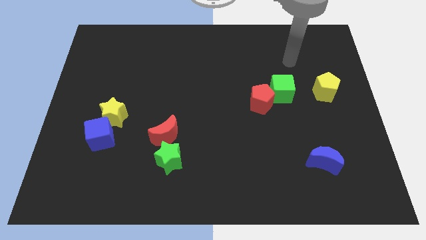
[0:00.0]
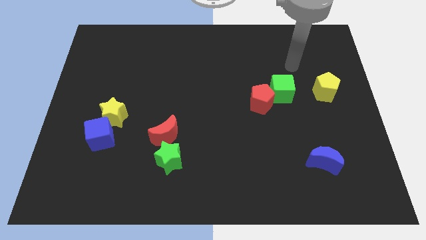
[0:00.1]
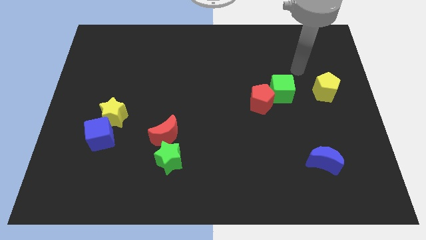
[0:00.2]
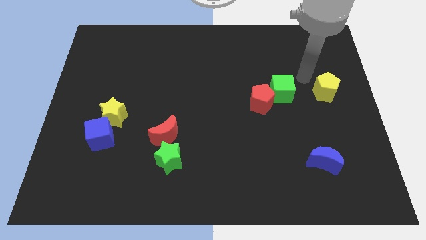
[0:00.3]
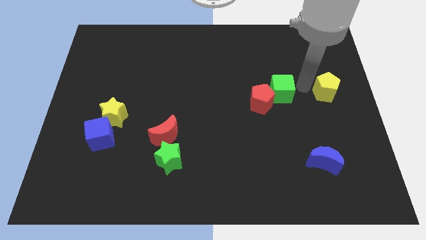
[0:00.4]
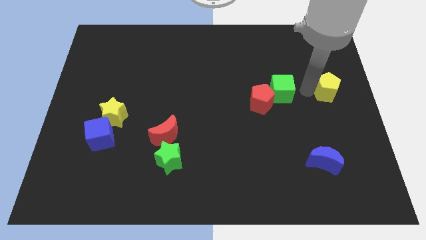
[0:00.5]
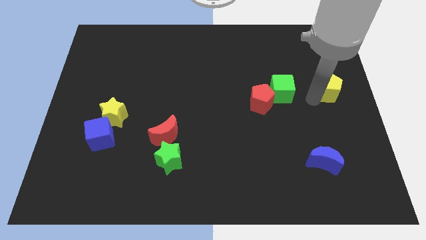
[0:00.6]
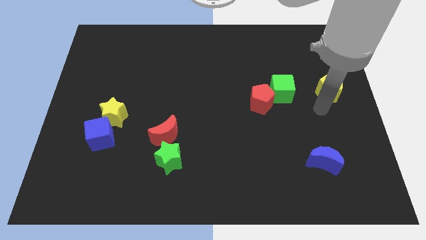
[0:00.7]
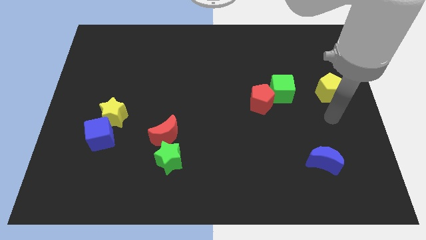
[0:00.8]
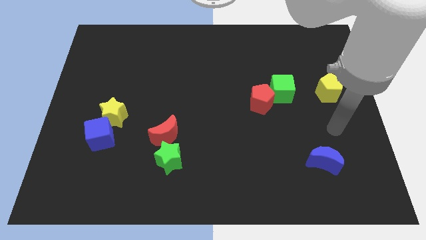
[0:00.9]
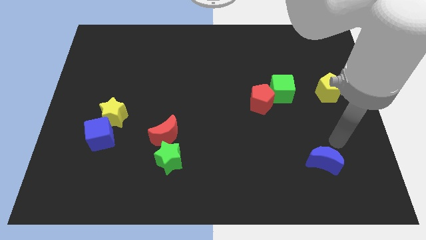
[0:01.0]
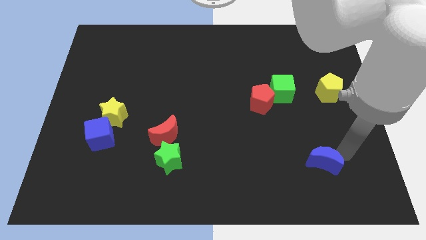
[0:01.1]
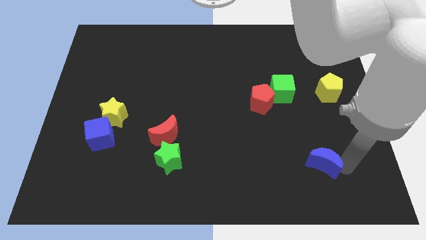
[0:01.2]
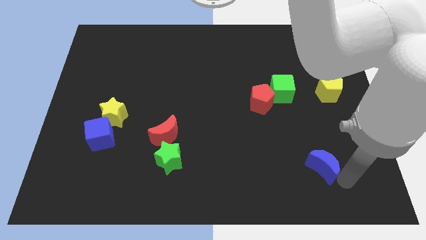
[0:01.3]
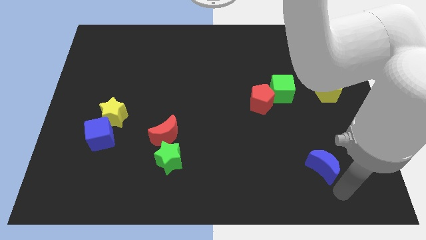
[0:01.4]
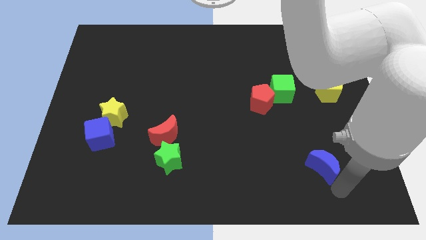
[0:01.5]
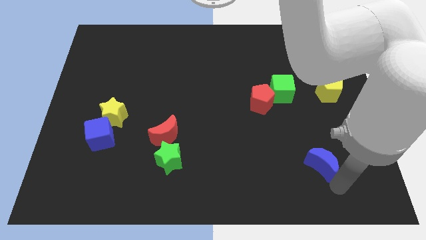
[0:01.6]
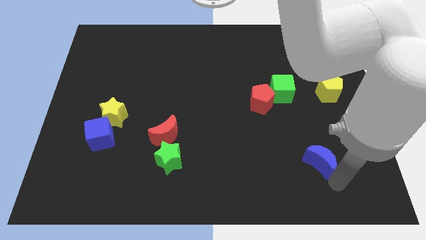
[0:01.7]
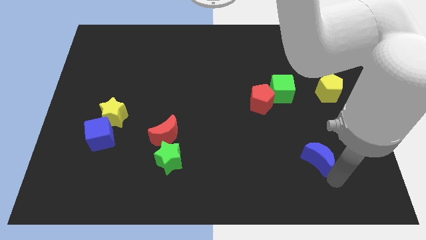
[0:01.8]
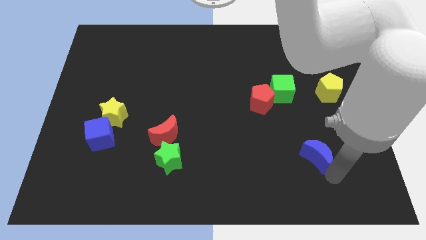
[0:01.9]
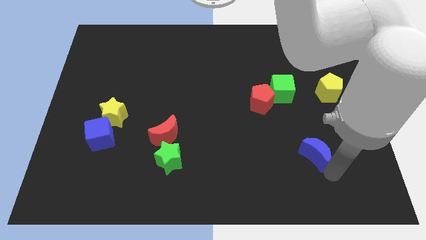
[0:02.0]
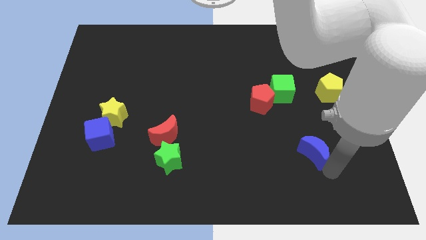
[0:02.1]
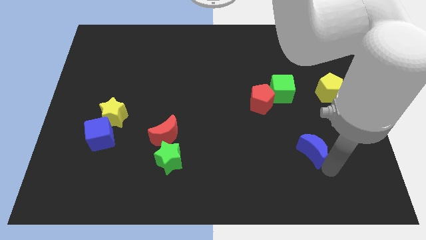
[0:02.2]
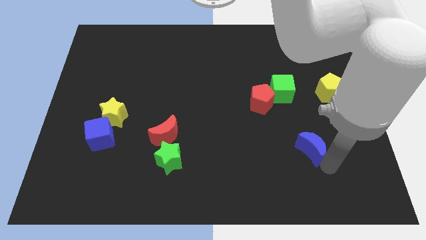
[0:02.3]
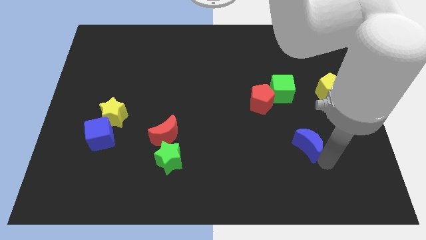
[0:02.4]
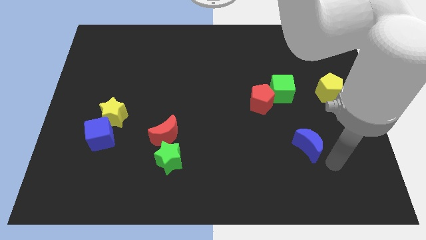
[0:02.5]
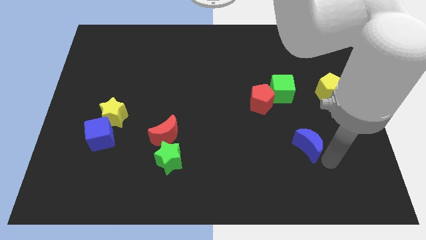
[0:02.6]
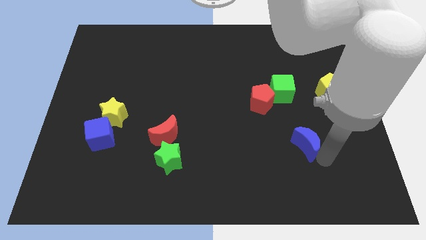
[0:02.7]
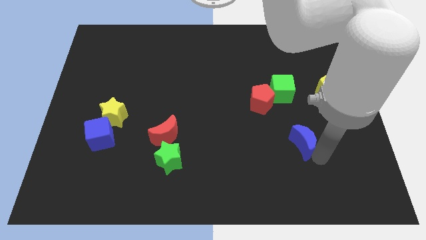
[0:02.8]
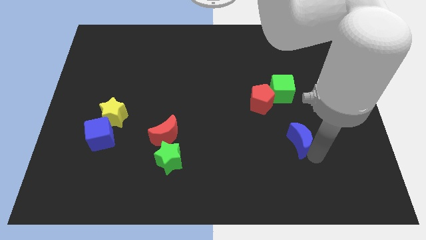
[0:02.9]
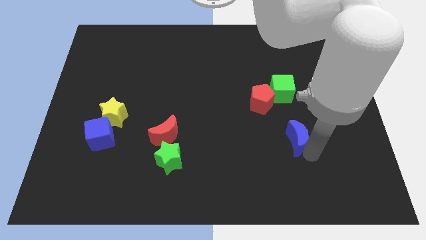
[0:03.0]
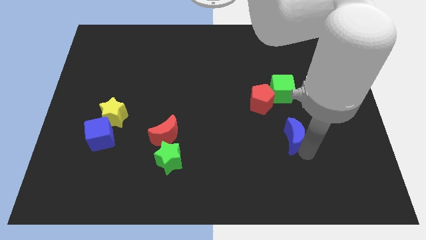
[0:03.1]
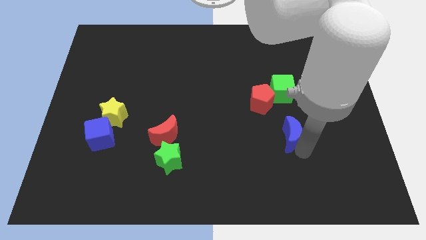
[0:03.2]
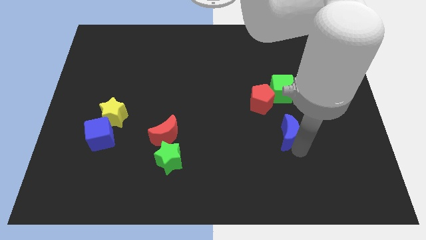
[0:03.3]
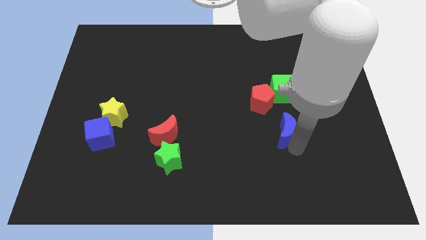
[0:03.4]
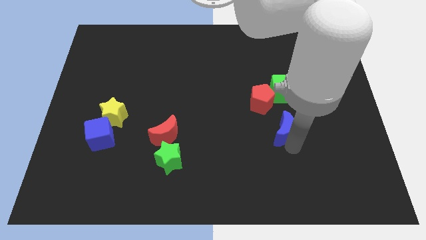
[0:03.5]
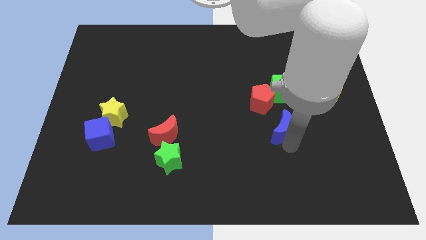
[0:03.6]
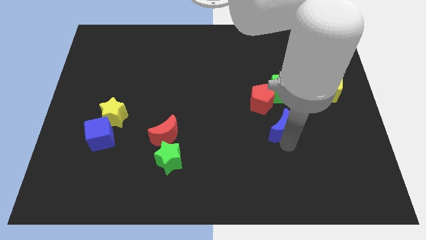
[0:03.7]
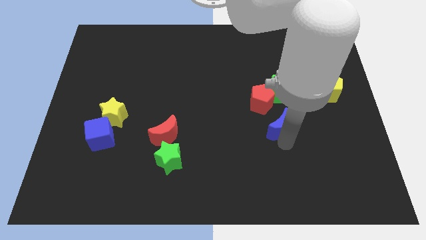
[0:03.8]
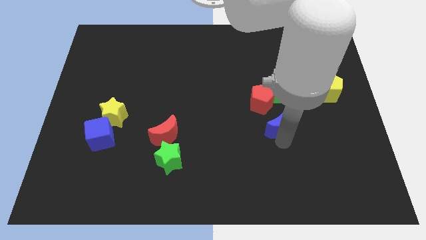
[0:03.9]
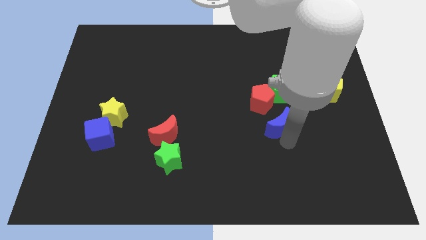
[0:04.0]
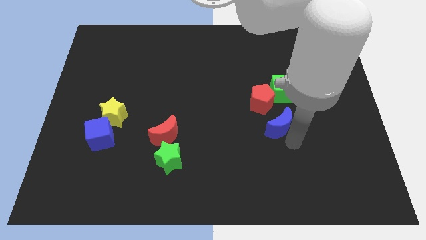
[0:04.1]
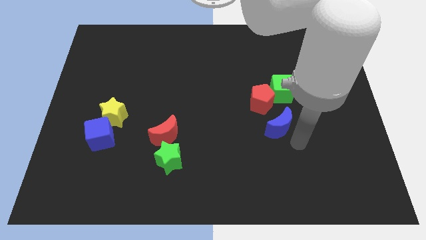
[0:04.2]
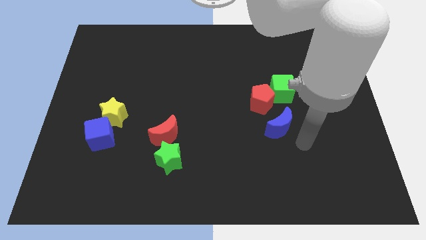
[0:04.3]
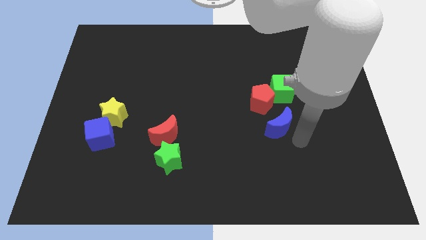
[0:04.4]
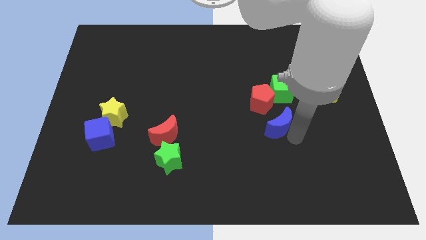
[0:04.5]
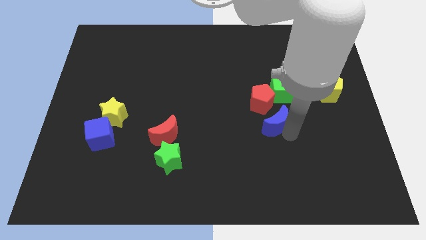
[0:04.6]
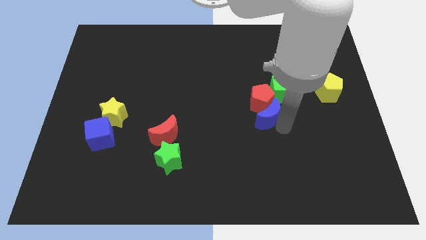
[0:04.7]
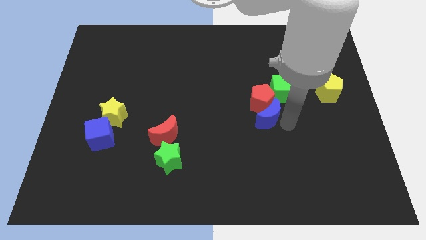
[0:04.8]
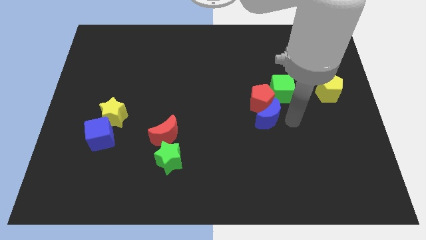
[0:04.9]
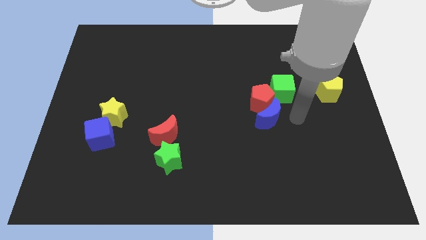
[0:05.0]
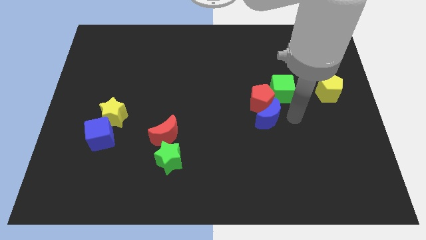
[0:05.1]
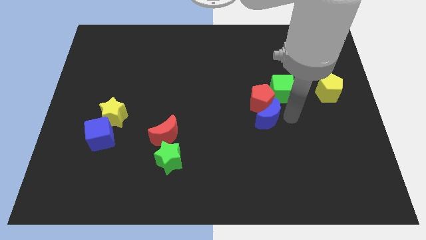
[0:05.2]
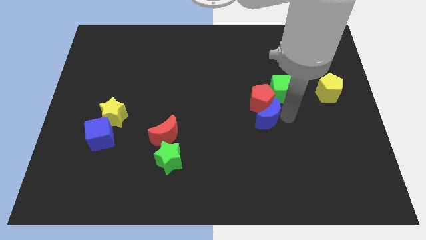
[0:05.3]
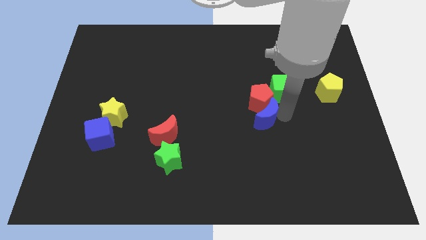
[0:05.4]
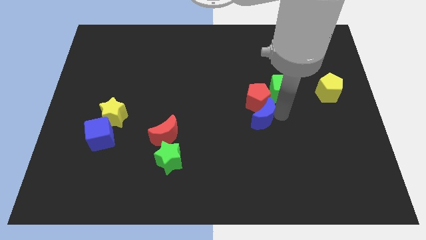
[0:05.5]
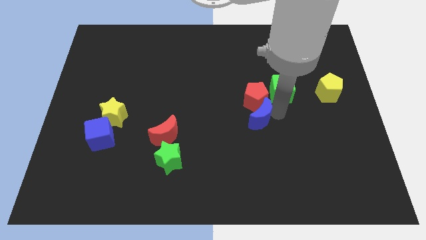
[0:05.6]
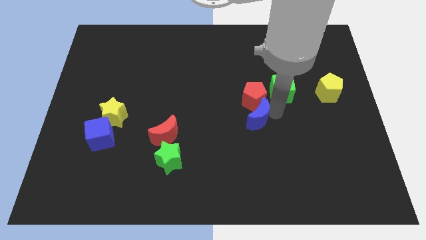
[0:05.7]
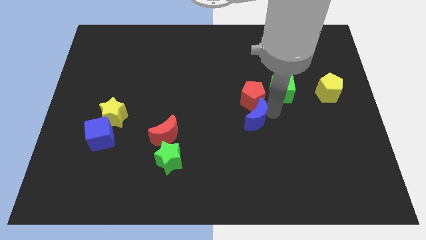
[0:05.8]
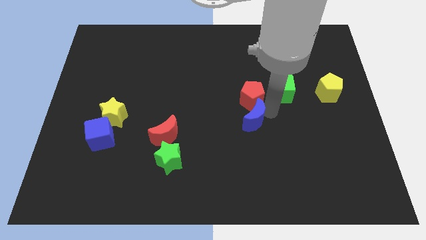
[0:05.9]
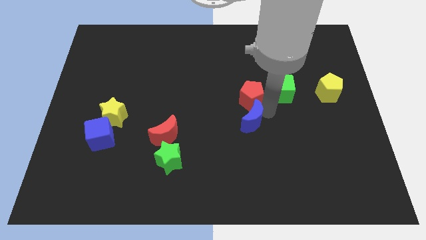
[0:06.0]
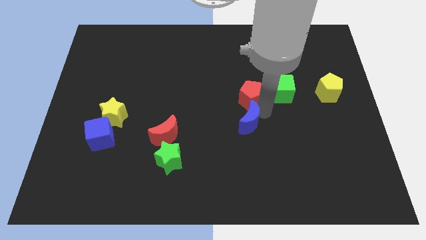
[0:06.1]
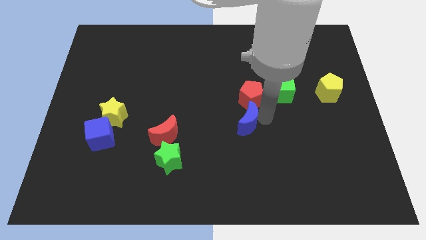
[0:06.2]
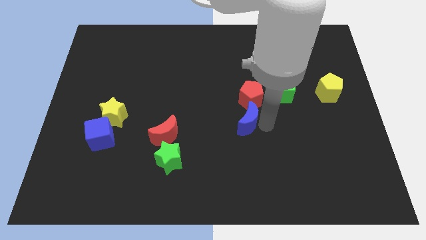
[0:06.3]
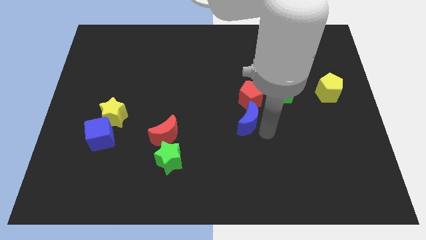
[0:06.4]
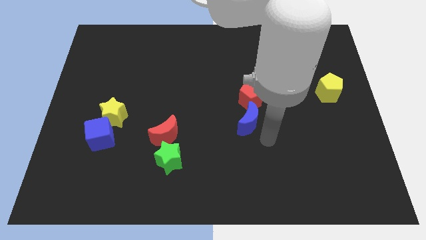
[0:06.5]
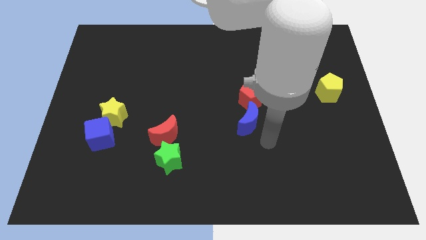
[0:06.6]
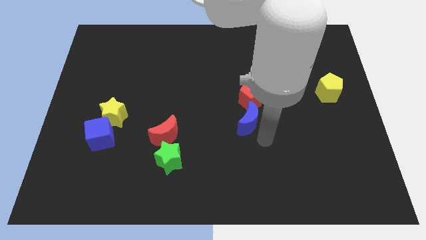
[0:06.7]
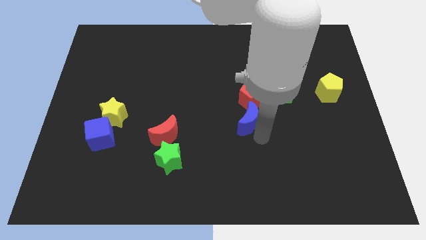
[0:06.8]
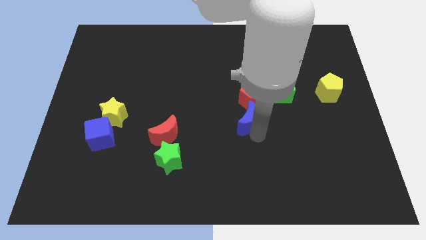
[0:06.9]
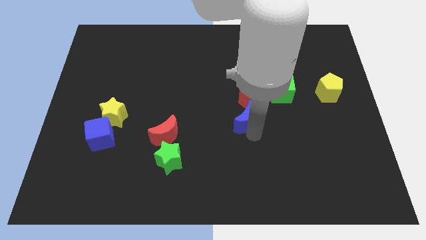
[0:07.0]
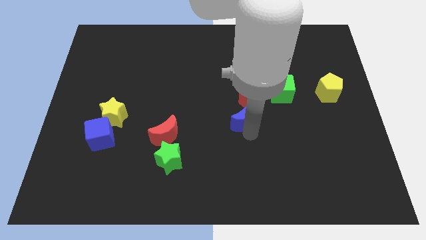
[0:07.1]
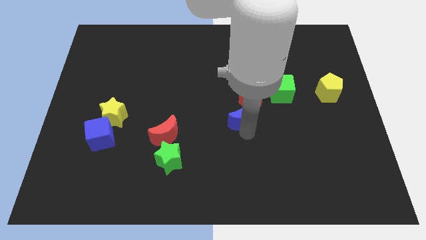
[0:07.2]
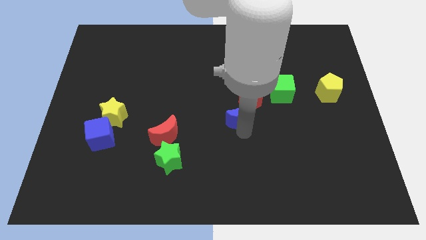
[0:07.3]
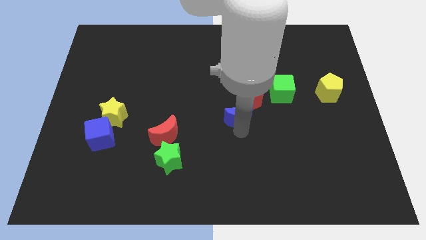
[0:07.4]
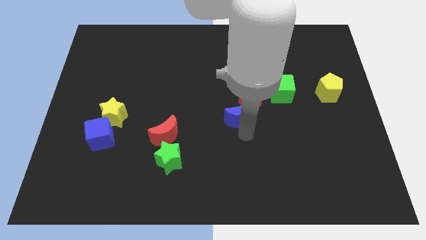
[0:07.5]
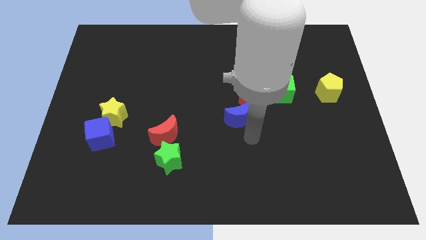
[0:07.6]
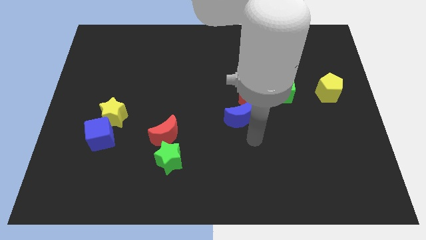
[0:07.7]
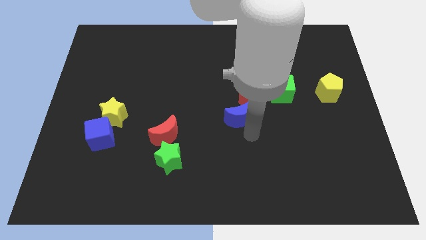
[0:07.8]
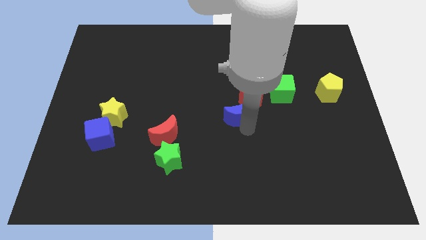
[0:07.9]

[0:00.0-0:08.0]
move the blue moon diagonally up and left
